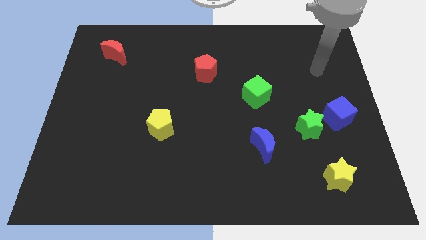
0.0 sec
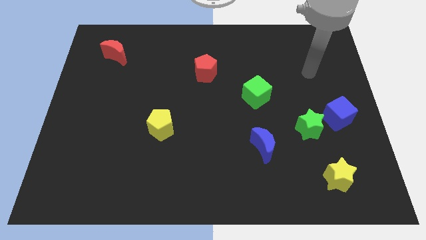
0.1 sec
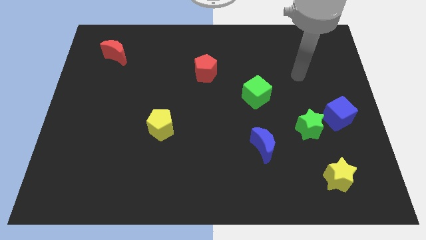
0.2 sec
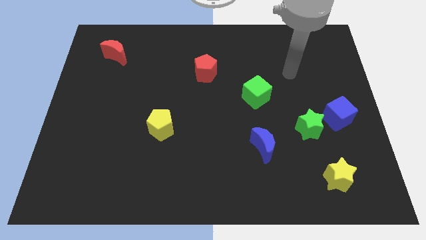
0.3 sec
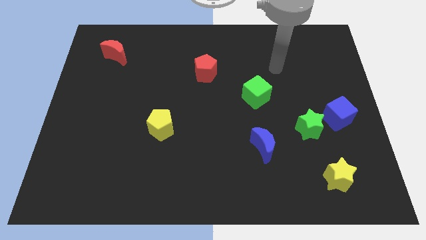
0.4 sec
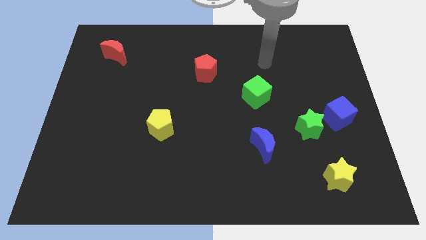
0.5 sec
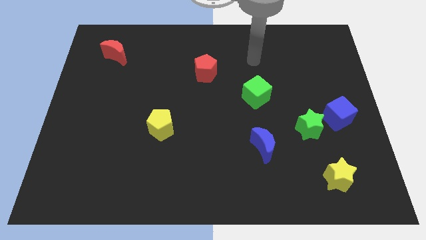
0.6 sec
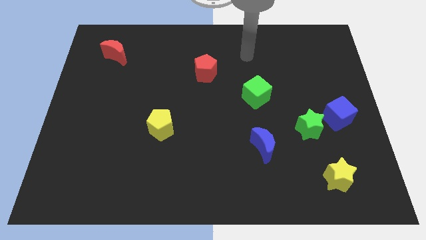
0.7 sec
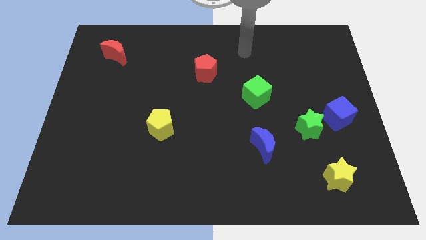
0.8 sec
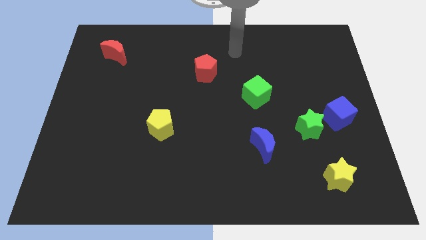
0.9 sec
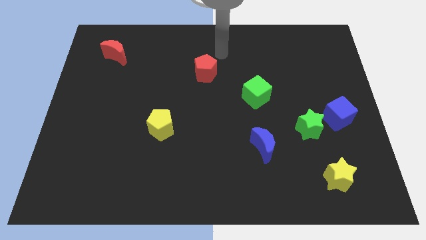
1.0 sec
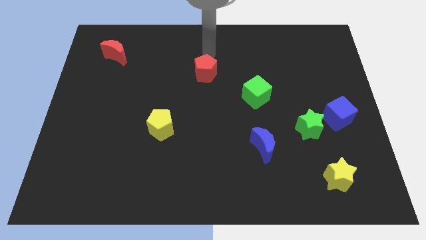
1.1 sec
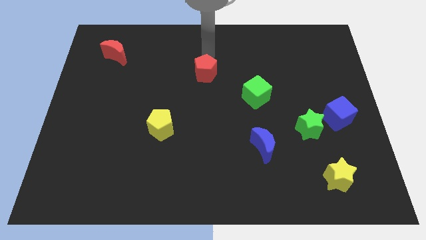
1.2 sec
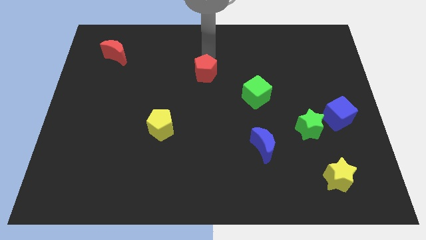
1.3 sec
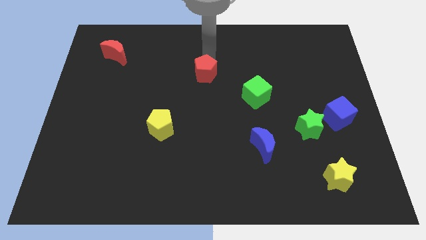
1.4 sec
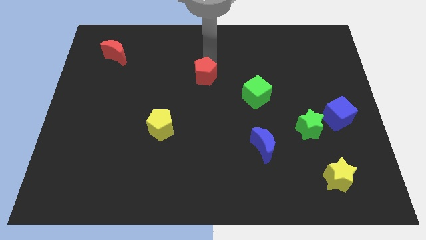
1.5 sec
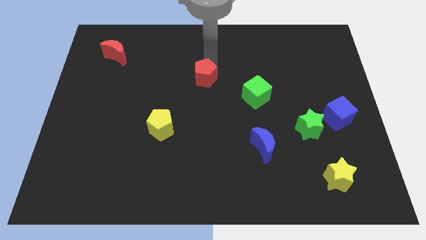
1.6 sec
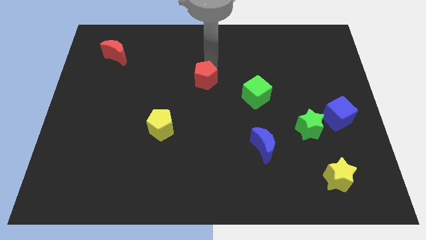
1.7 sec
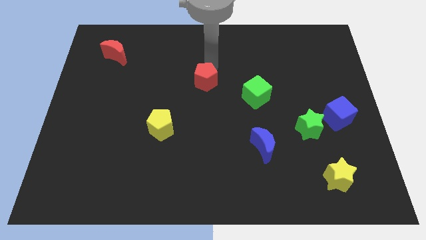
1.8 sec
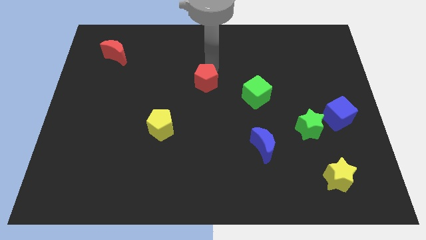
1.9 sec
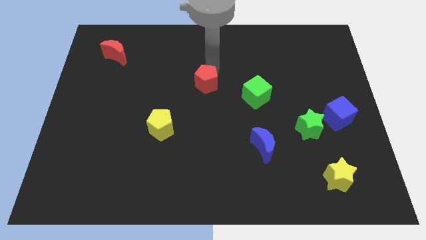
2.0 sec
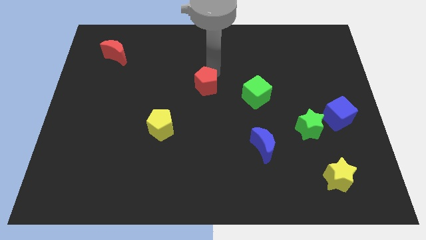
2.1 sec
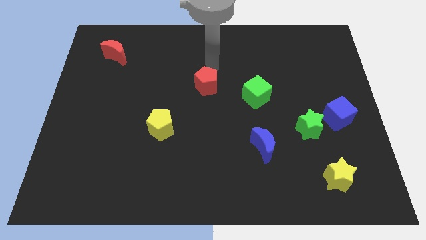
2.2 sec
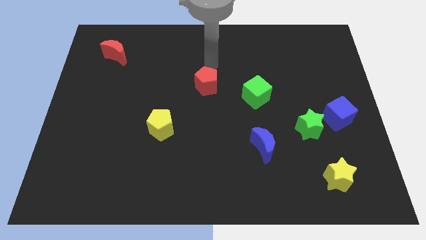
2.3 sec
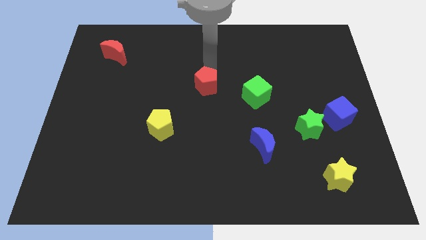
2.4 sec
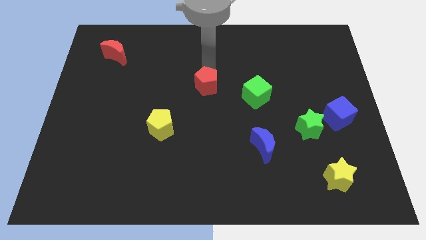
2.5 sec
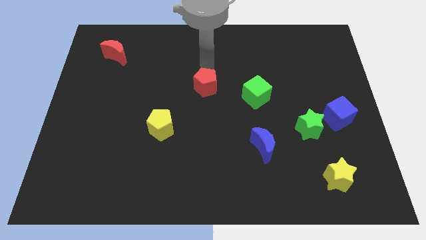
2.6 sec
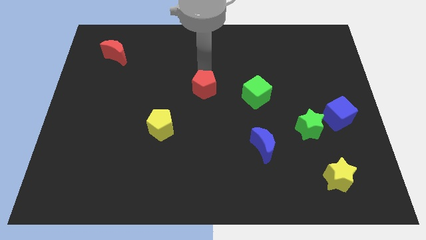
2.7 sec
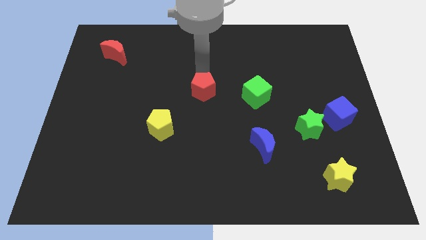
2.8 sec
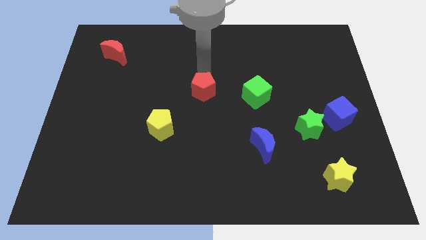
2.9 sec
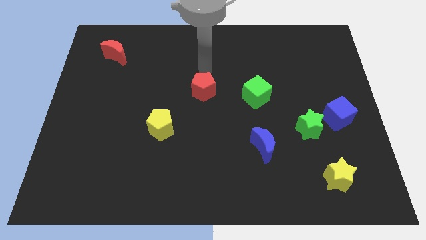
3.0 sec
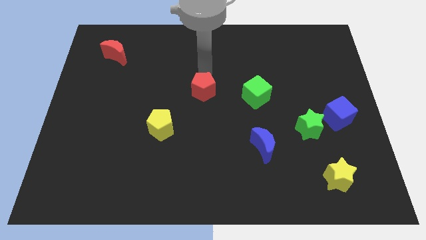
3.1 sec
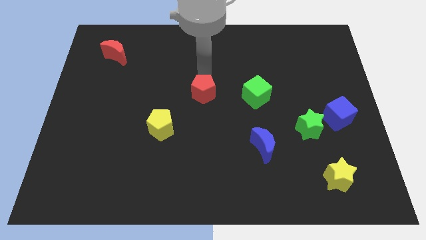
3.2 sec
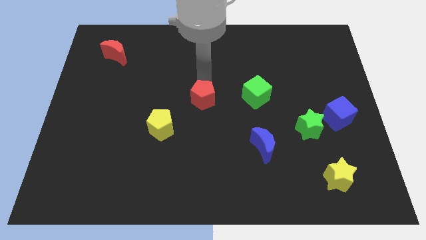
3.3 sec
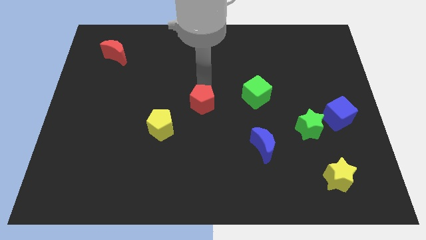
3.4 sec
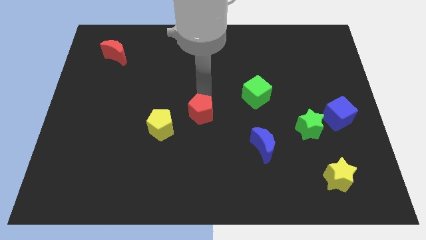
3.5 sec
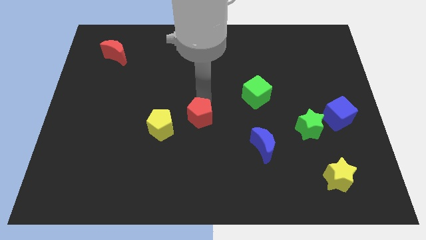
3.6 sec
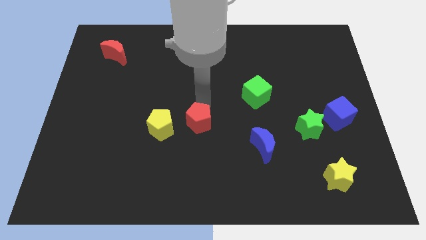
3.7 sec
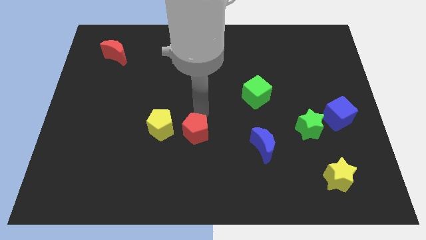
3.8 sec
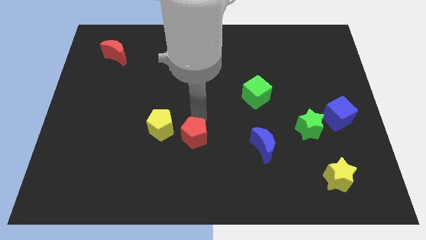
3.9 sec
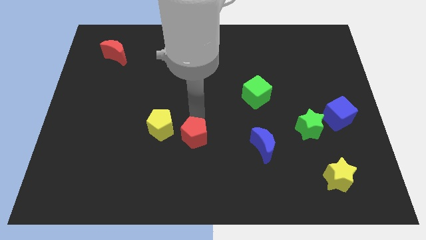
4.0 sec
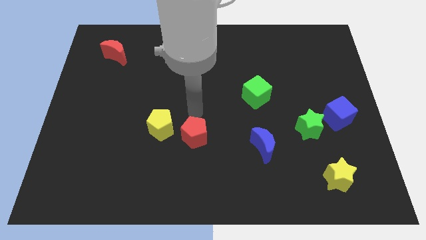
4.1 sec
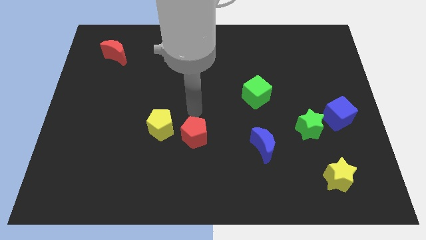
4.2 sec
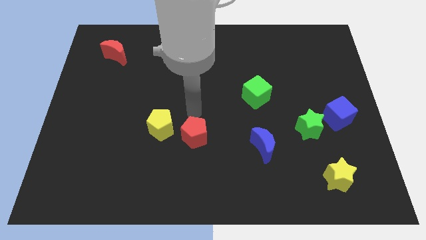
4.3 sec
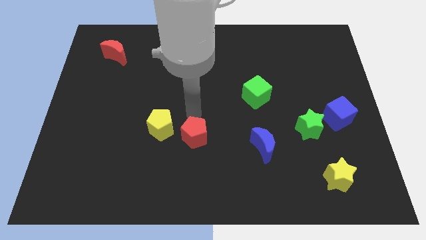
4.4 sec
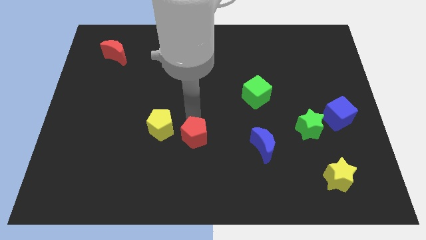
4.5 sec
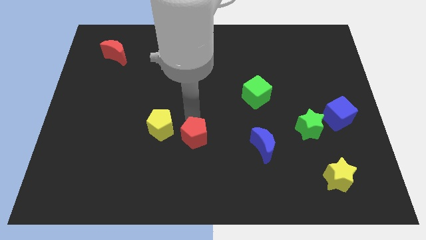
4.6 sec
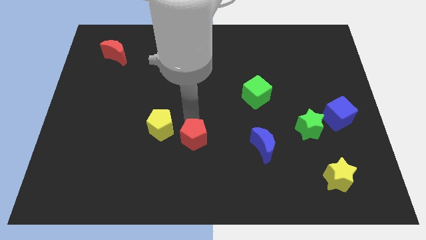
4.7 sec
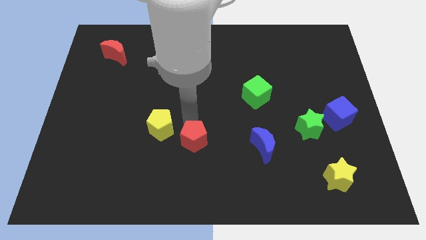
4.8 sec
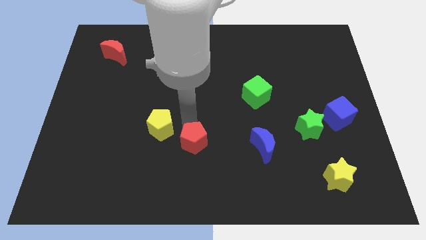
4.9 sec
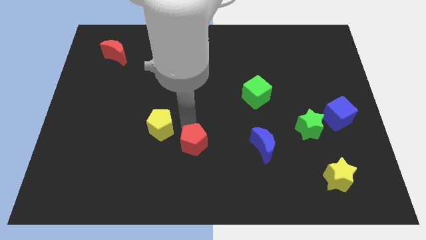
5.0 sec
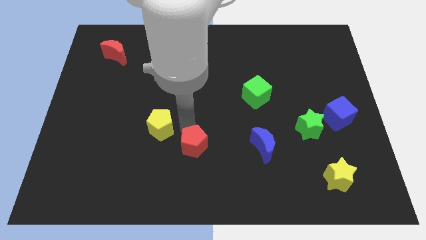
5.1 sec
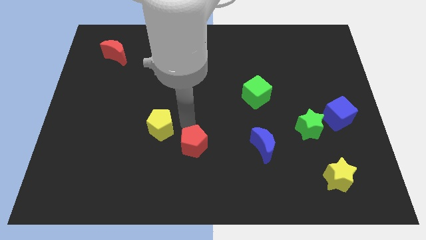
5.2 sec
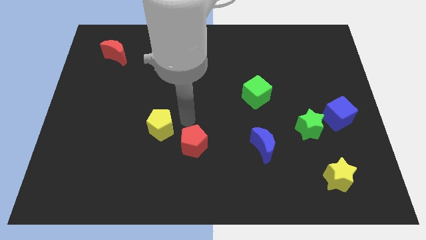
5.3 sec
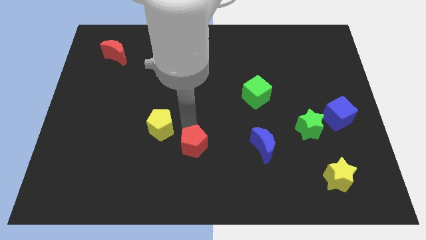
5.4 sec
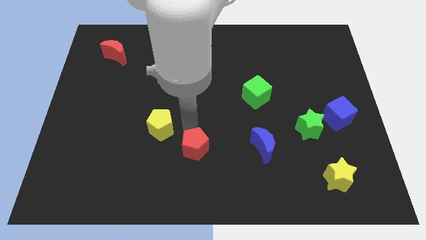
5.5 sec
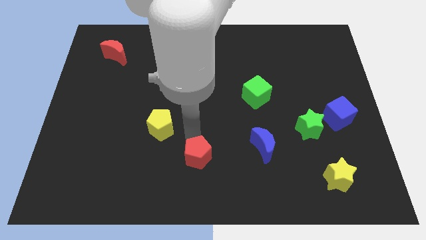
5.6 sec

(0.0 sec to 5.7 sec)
push the red pentagon to the bottom

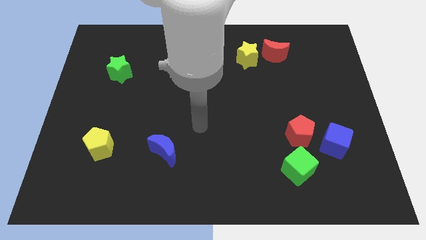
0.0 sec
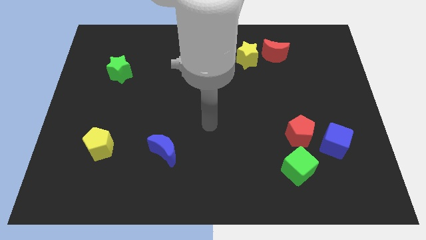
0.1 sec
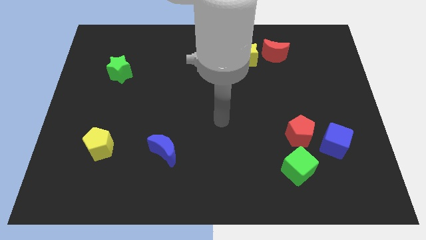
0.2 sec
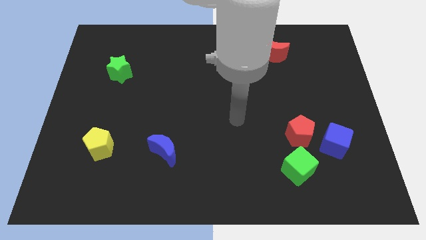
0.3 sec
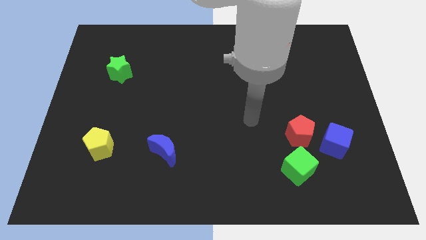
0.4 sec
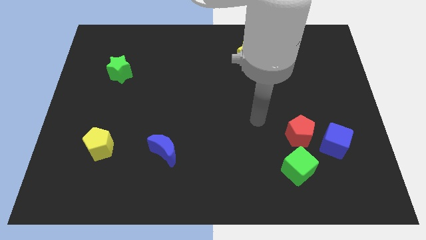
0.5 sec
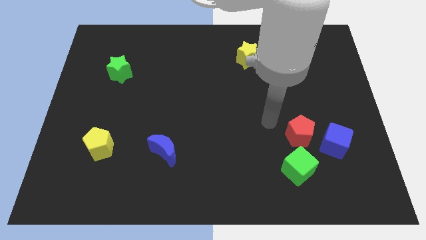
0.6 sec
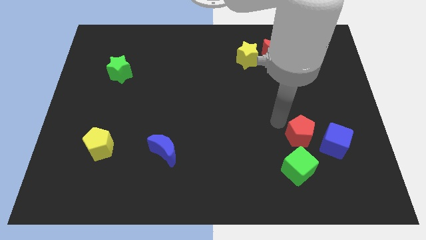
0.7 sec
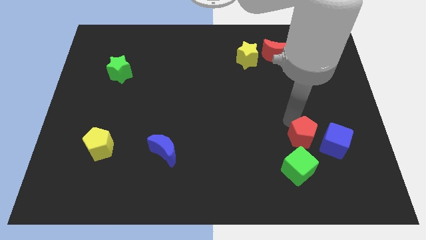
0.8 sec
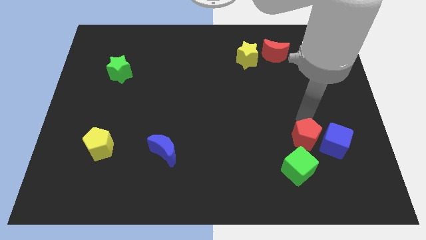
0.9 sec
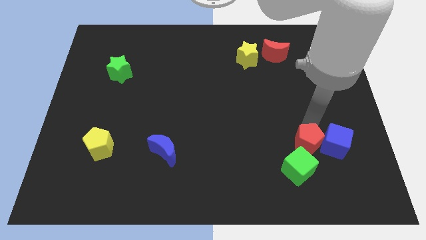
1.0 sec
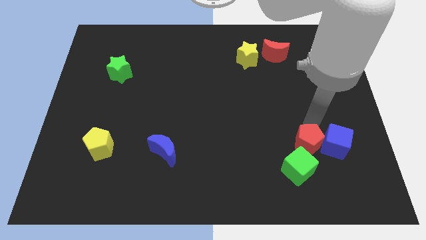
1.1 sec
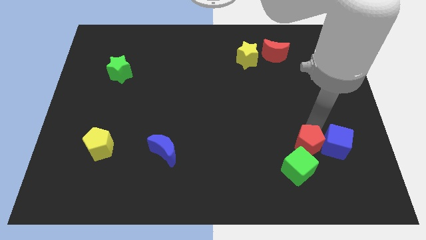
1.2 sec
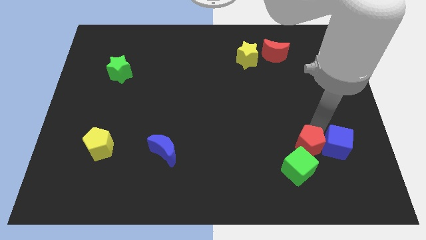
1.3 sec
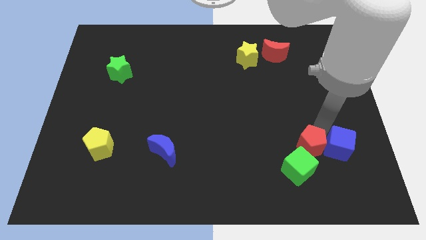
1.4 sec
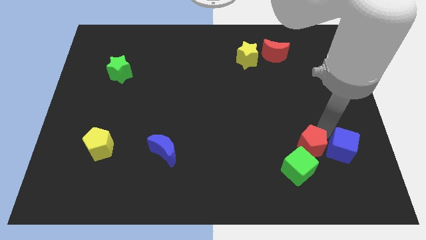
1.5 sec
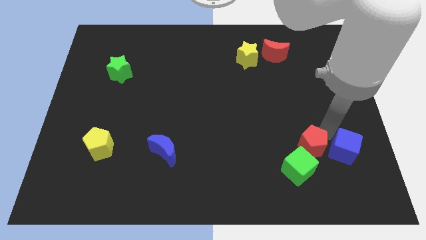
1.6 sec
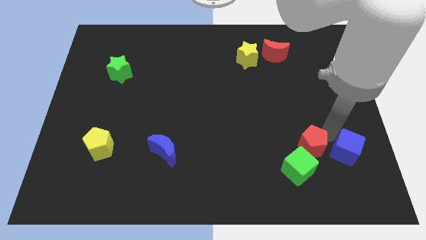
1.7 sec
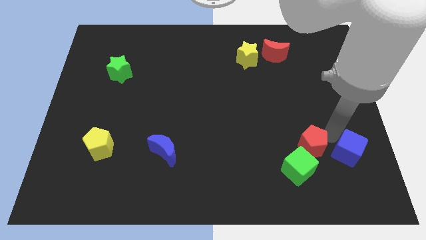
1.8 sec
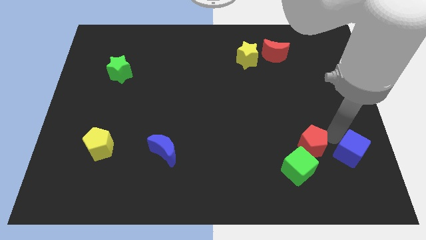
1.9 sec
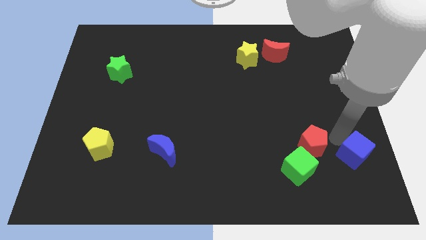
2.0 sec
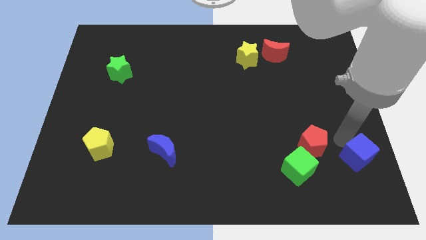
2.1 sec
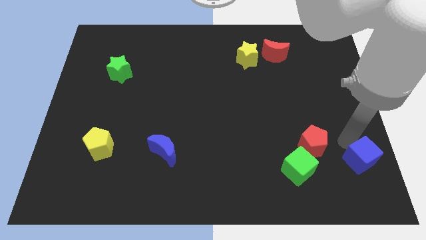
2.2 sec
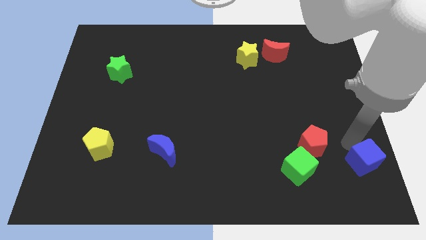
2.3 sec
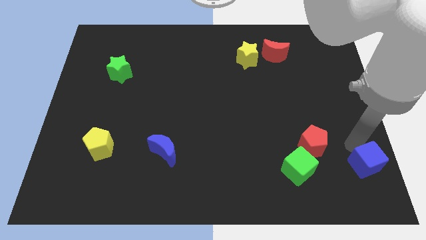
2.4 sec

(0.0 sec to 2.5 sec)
slide the blue cube to the lower right corner
